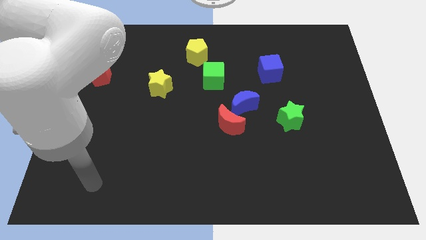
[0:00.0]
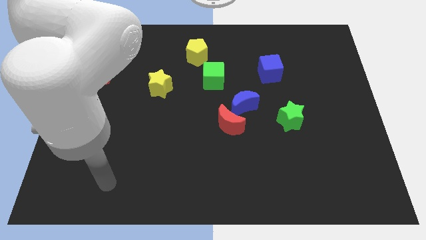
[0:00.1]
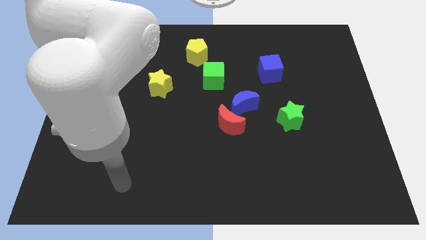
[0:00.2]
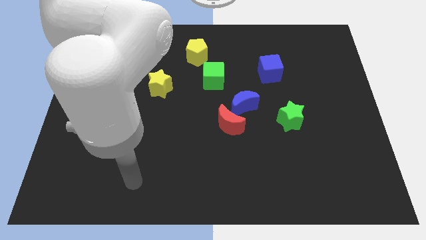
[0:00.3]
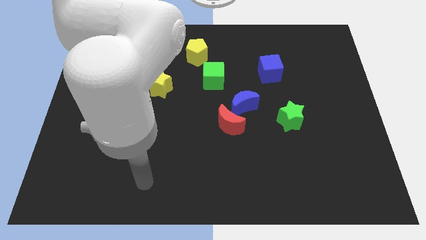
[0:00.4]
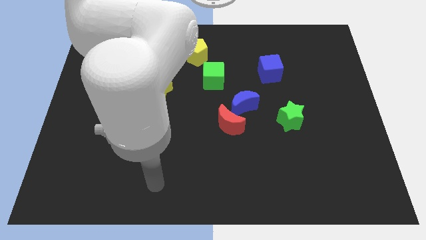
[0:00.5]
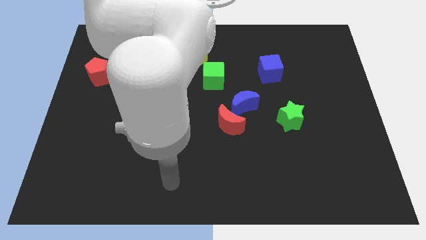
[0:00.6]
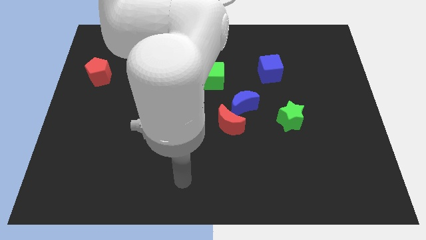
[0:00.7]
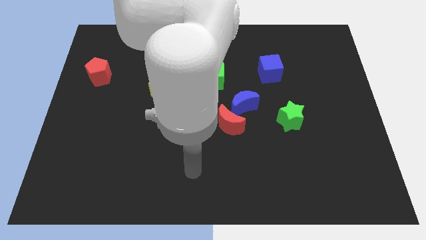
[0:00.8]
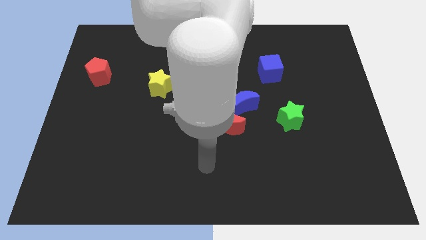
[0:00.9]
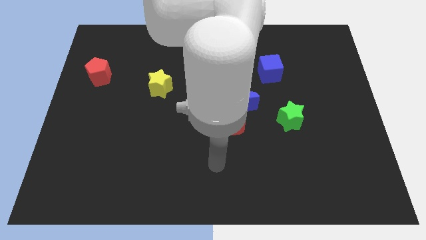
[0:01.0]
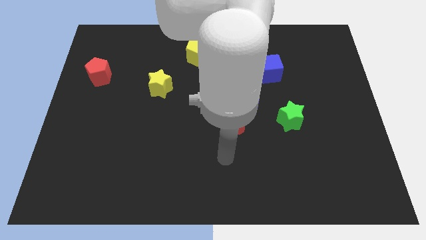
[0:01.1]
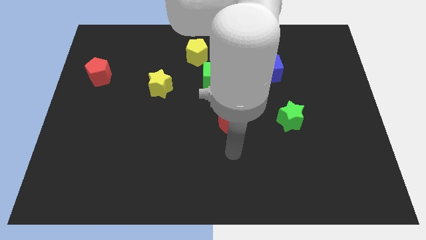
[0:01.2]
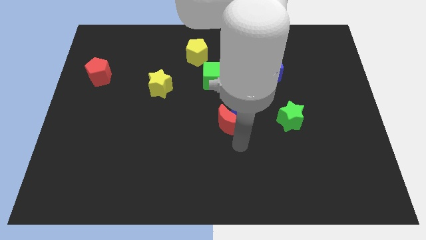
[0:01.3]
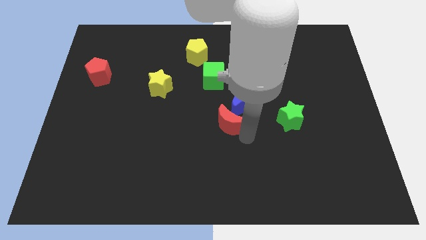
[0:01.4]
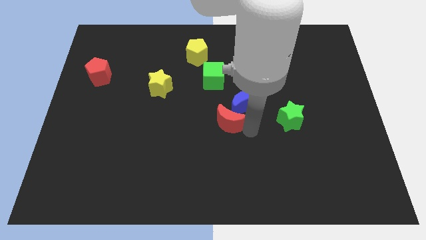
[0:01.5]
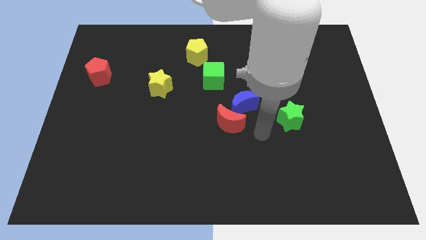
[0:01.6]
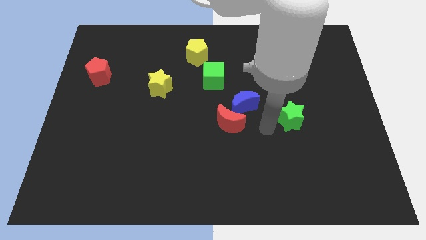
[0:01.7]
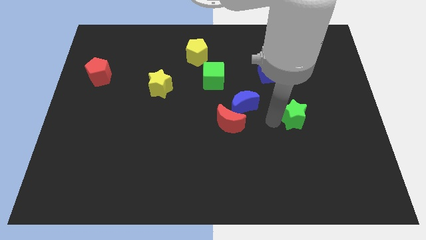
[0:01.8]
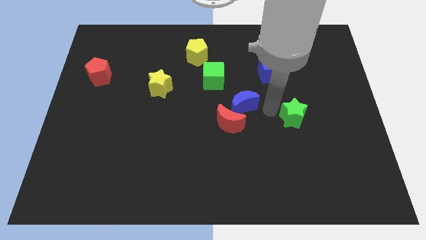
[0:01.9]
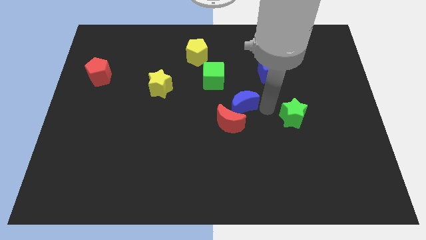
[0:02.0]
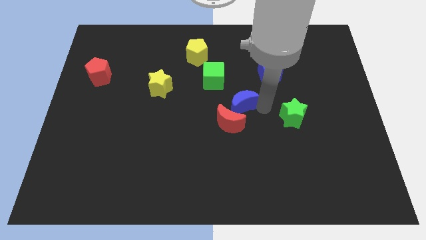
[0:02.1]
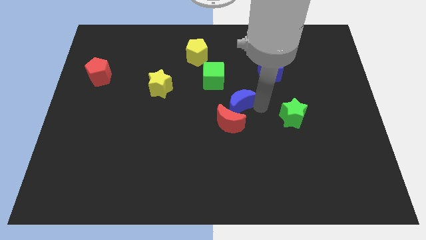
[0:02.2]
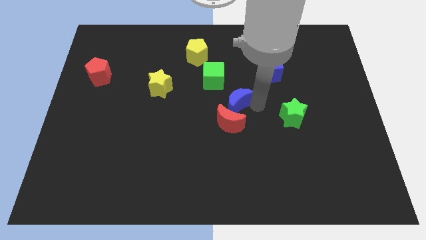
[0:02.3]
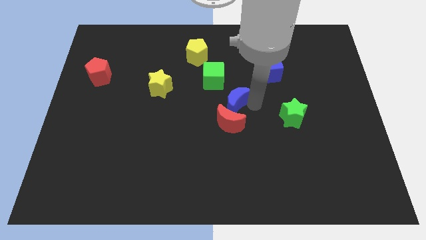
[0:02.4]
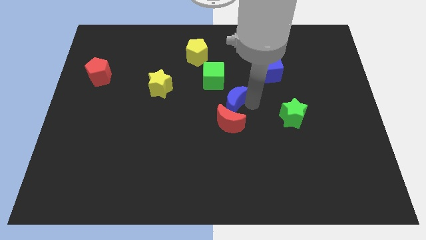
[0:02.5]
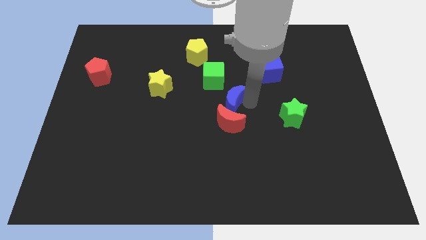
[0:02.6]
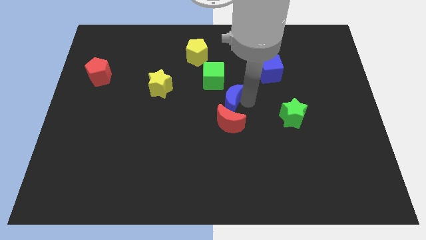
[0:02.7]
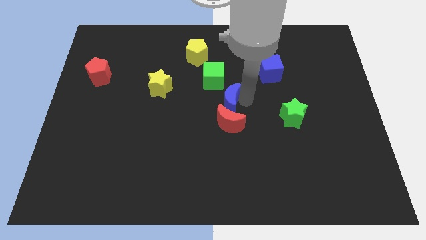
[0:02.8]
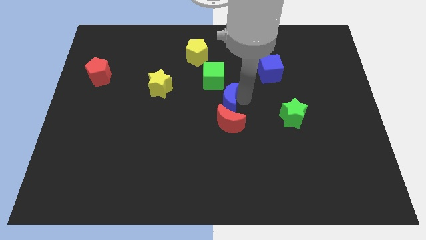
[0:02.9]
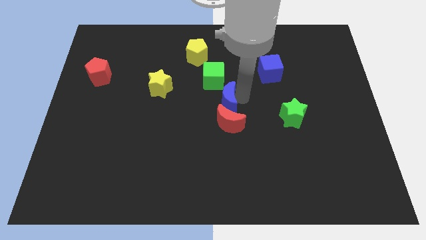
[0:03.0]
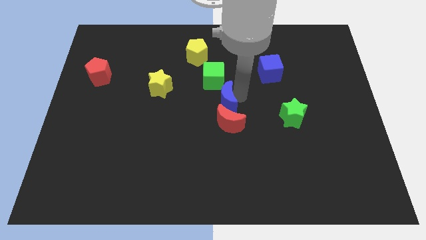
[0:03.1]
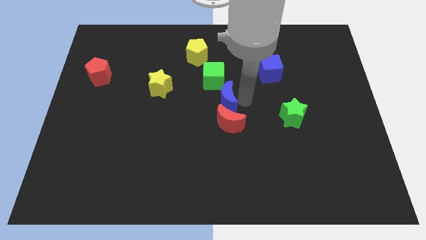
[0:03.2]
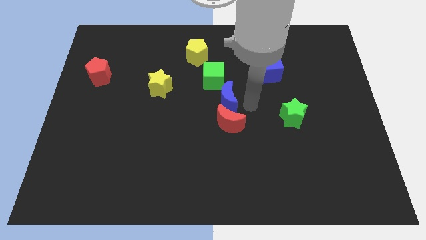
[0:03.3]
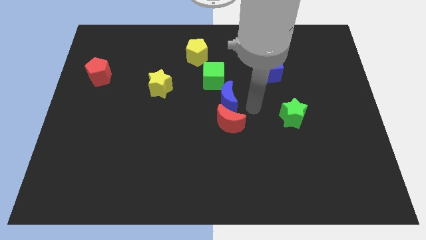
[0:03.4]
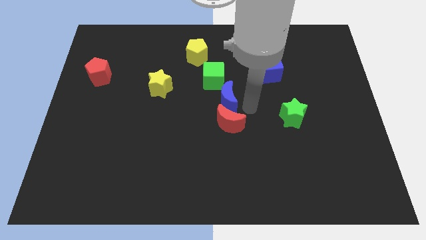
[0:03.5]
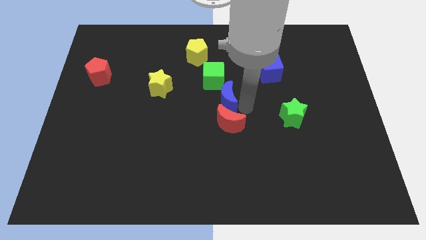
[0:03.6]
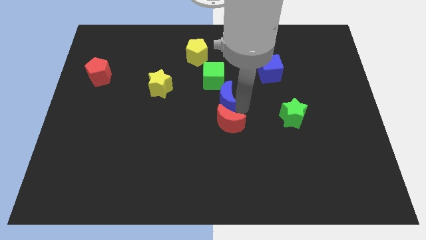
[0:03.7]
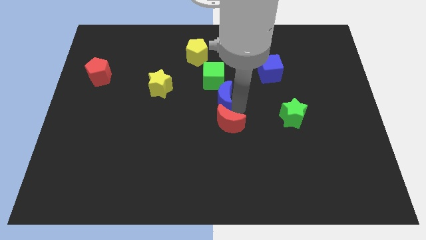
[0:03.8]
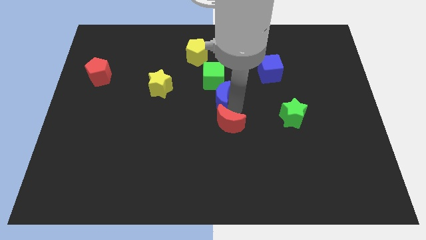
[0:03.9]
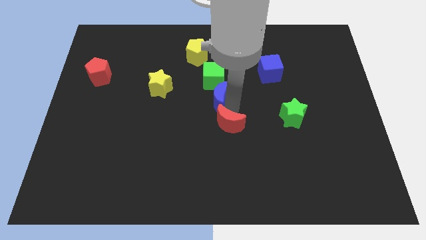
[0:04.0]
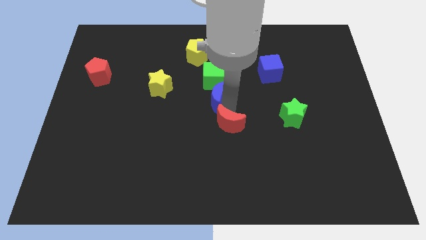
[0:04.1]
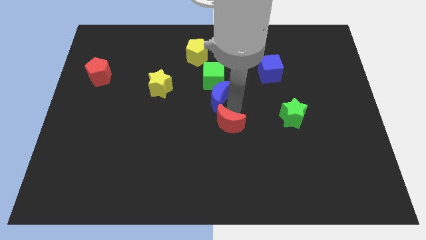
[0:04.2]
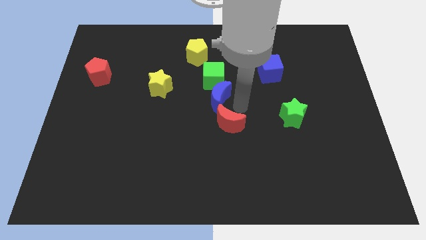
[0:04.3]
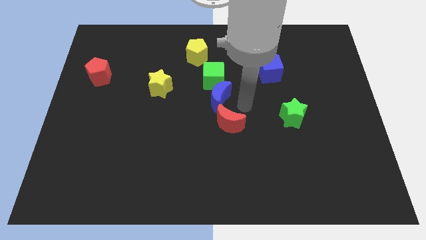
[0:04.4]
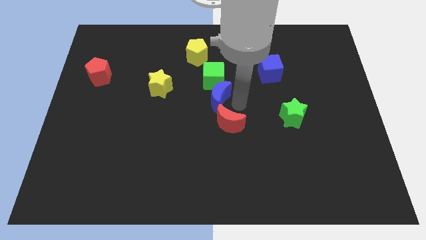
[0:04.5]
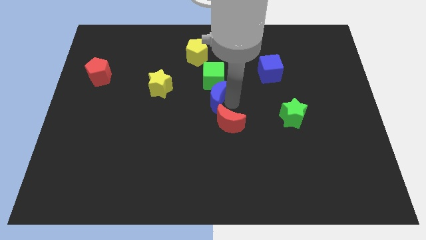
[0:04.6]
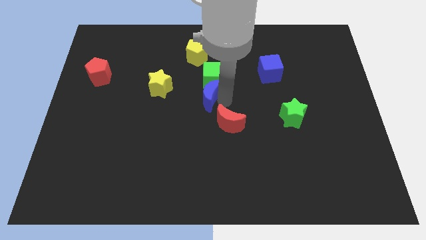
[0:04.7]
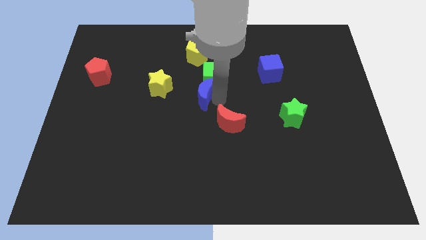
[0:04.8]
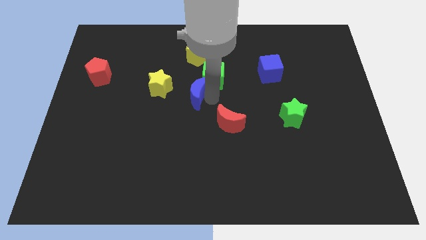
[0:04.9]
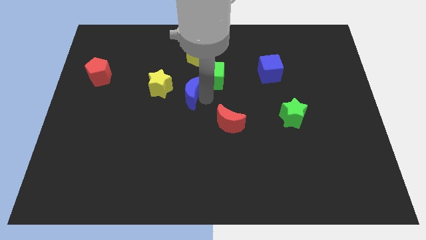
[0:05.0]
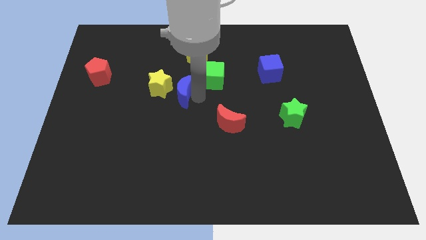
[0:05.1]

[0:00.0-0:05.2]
put the blue moon next to the yellow star

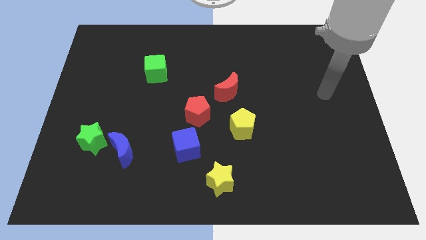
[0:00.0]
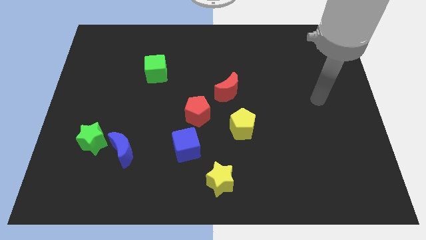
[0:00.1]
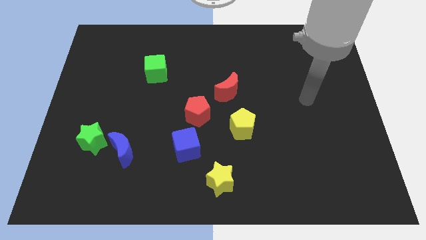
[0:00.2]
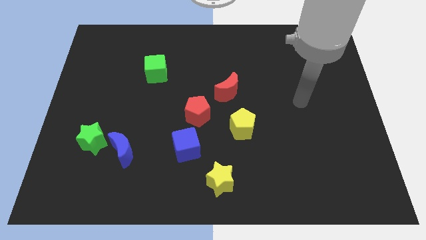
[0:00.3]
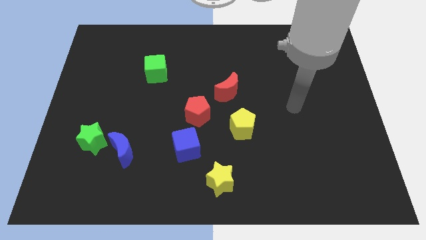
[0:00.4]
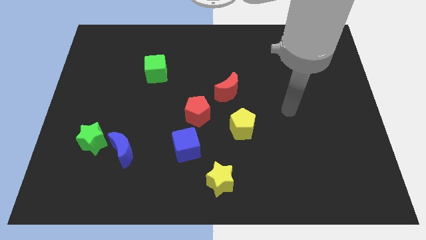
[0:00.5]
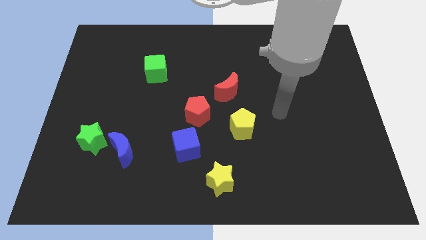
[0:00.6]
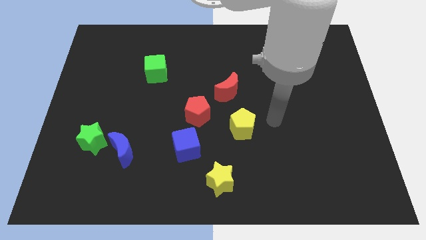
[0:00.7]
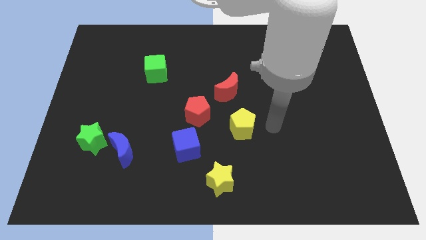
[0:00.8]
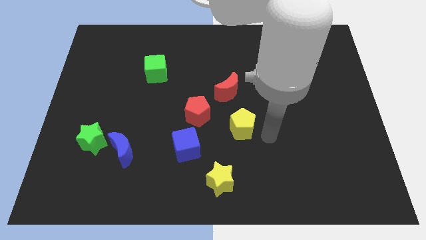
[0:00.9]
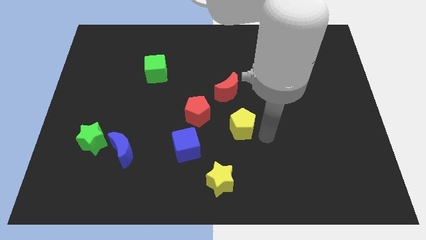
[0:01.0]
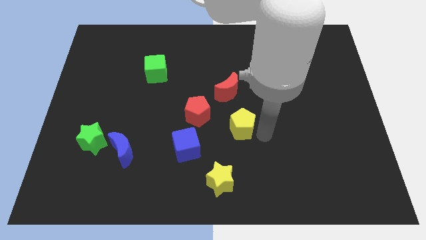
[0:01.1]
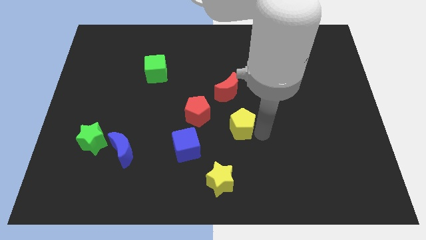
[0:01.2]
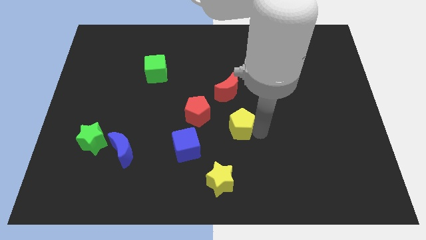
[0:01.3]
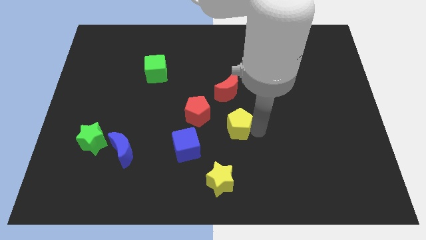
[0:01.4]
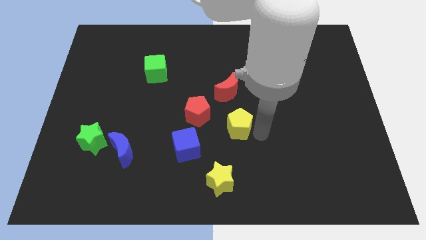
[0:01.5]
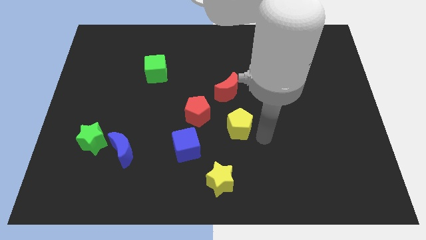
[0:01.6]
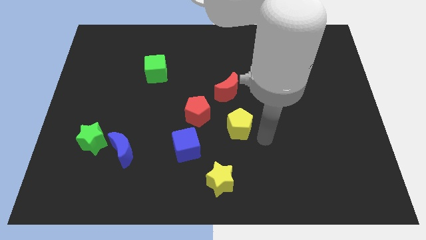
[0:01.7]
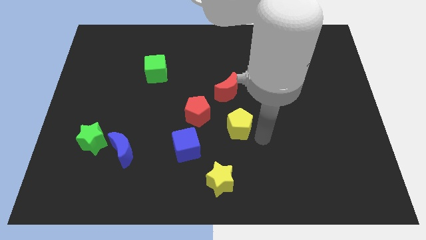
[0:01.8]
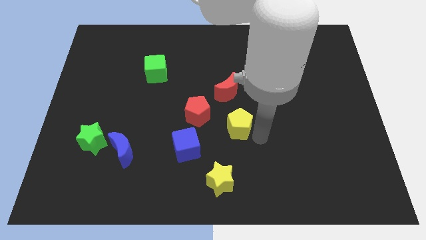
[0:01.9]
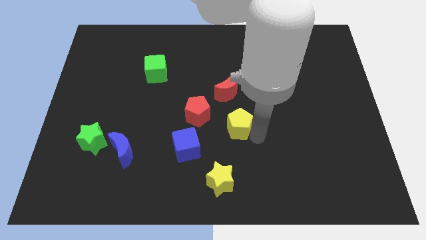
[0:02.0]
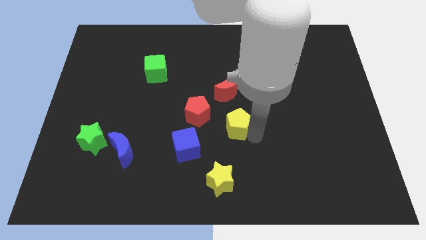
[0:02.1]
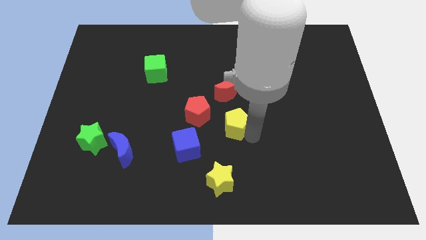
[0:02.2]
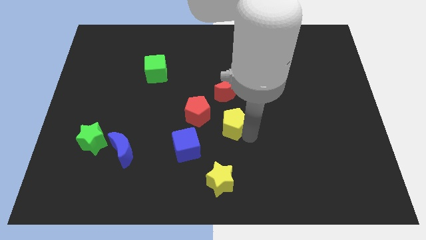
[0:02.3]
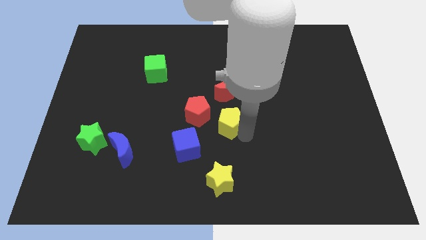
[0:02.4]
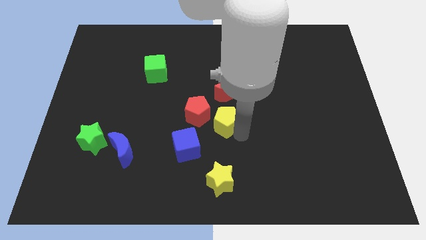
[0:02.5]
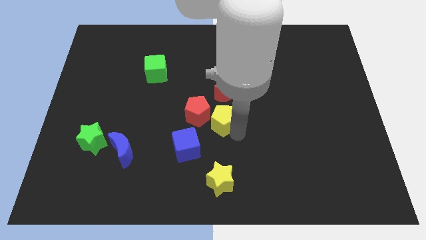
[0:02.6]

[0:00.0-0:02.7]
put the yellow pentagon next to the red pentagon
